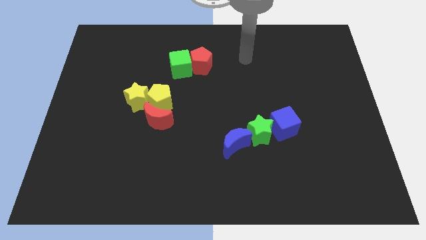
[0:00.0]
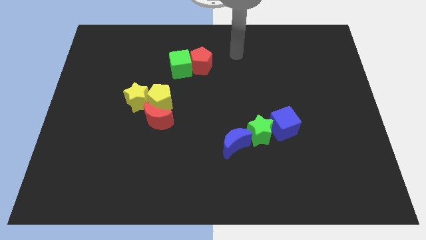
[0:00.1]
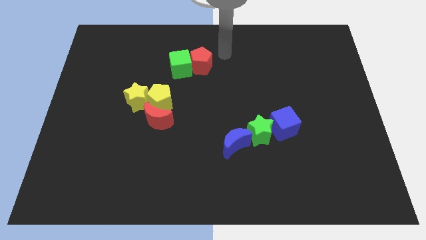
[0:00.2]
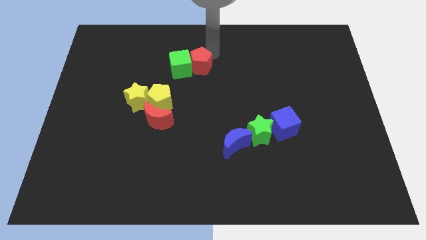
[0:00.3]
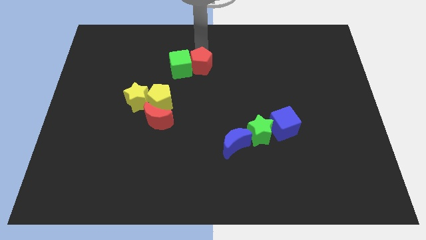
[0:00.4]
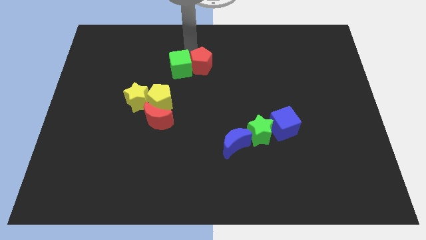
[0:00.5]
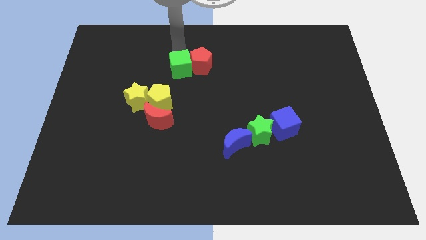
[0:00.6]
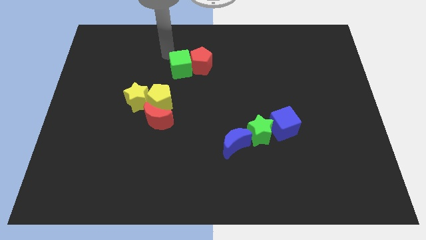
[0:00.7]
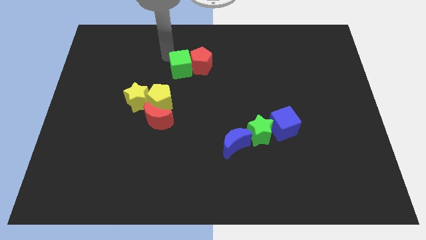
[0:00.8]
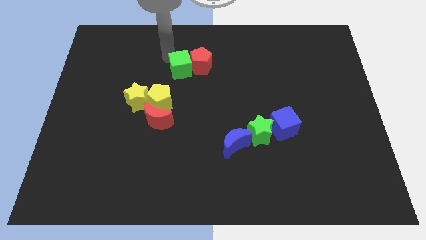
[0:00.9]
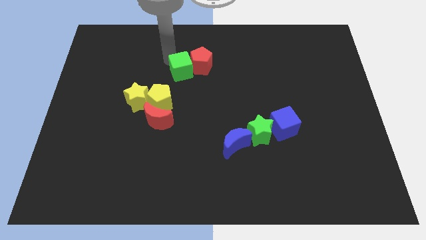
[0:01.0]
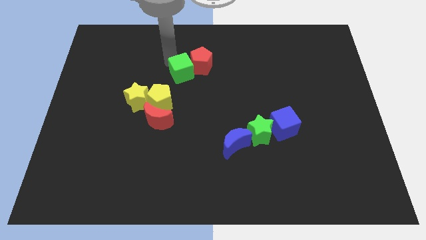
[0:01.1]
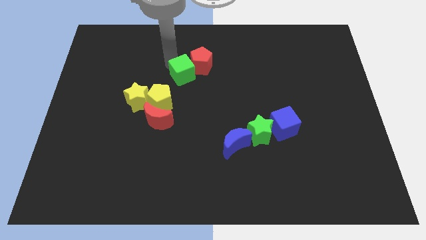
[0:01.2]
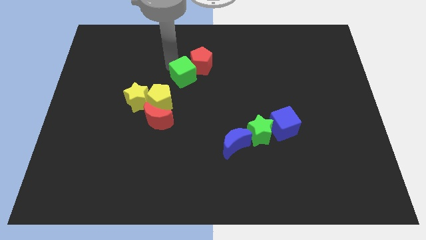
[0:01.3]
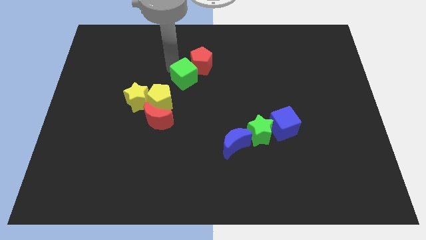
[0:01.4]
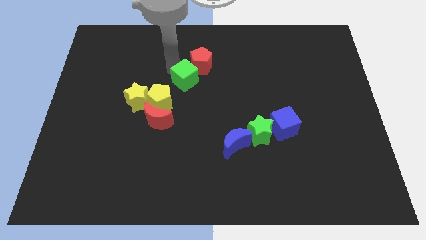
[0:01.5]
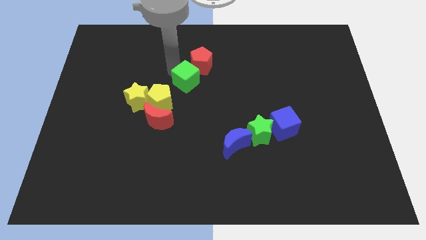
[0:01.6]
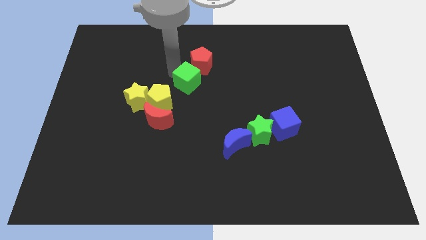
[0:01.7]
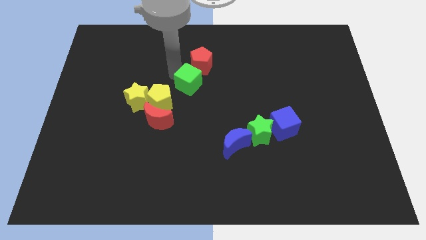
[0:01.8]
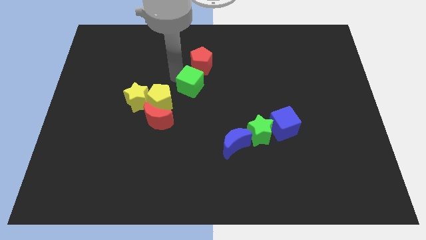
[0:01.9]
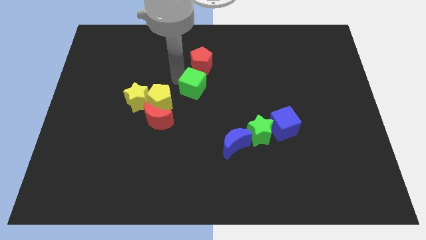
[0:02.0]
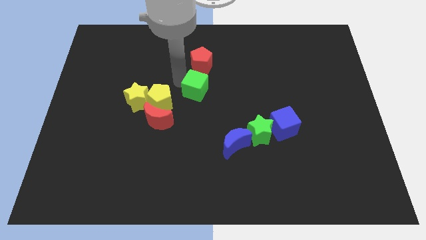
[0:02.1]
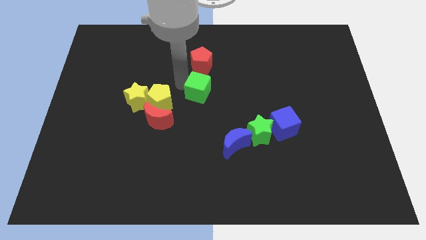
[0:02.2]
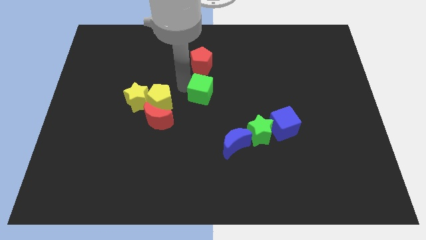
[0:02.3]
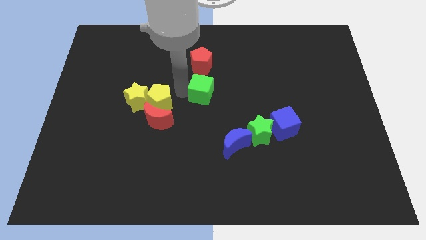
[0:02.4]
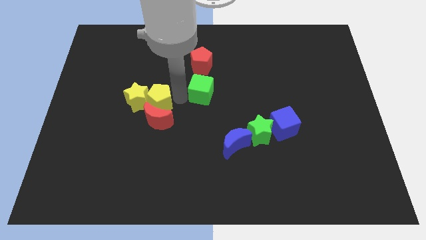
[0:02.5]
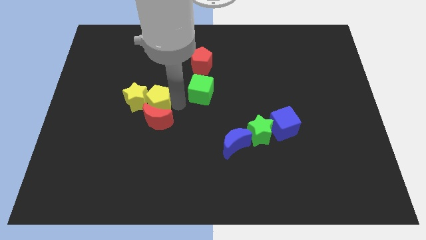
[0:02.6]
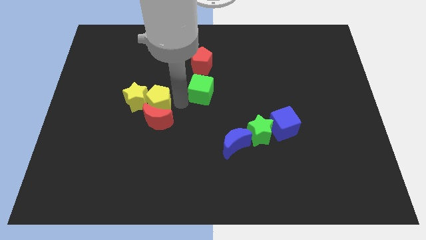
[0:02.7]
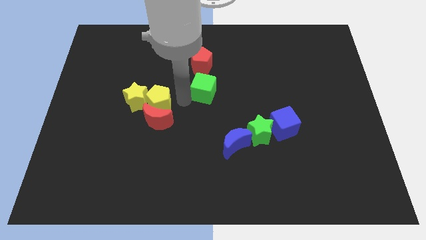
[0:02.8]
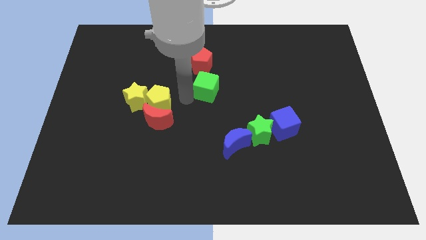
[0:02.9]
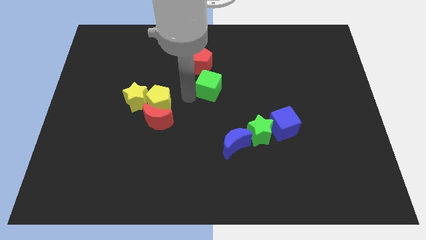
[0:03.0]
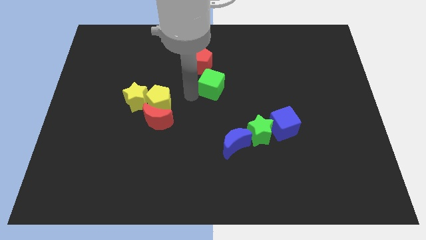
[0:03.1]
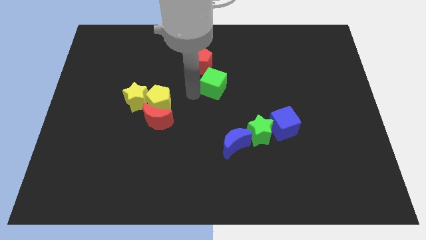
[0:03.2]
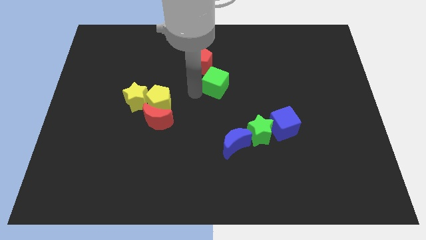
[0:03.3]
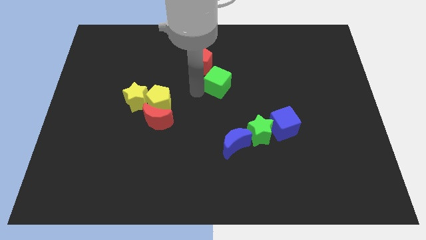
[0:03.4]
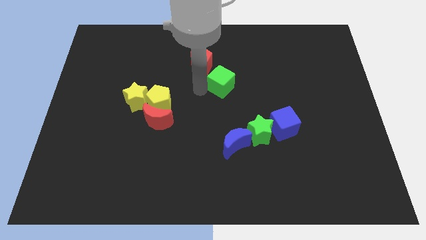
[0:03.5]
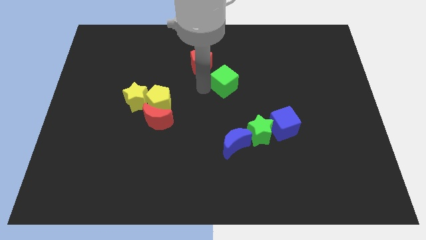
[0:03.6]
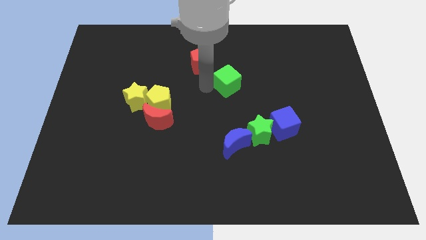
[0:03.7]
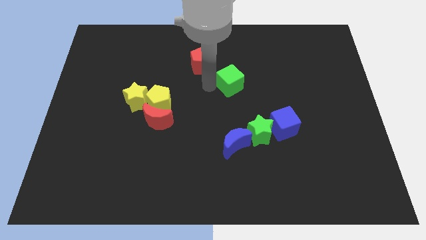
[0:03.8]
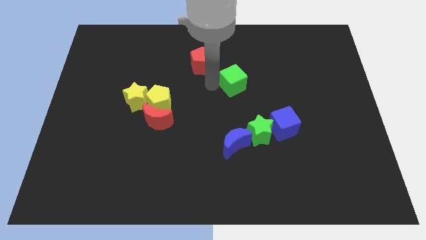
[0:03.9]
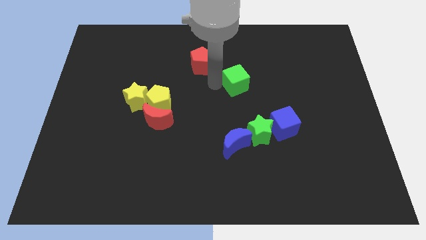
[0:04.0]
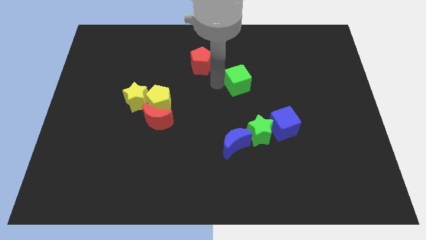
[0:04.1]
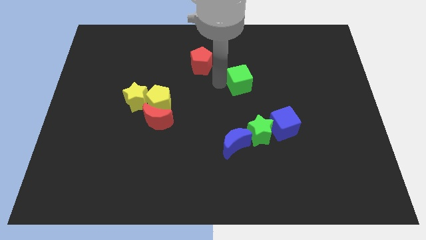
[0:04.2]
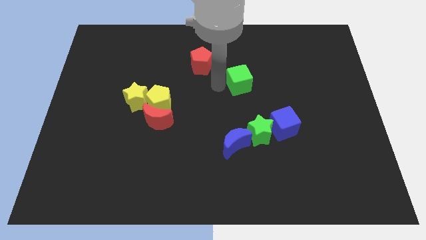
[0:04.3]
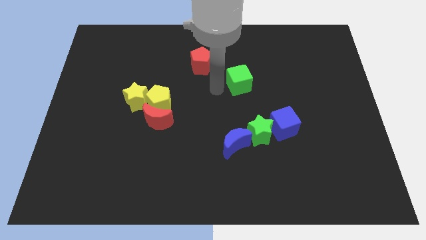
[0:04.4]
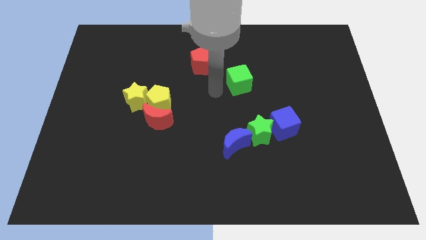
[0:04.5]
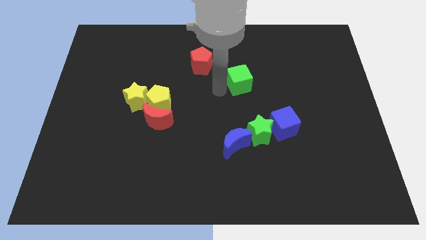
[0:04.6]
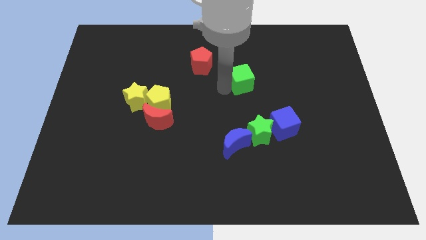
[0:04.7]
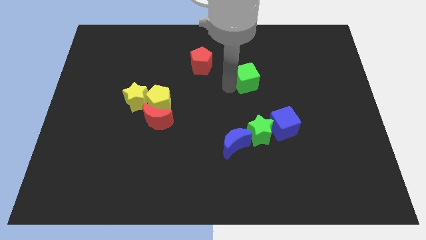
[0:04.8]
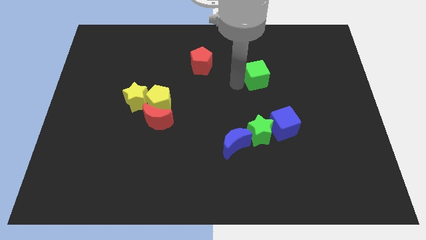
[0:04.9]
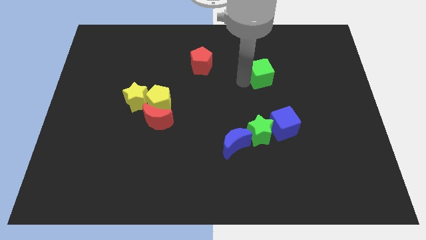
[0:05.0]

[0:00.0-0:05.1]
slide the green cube to the right

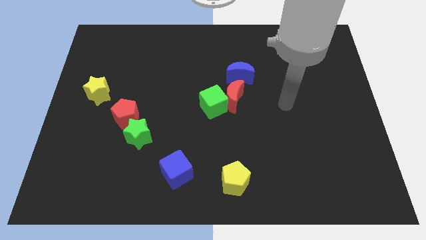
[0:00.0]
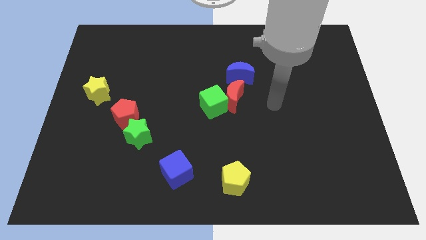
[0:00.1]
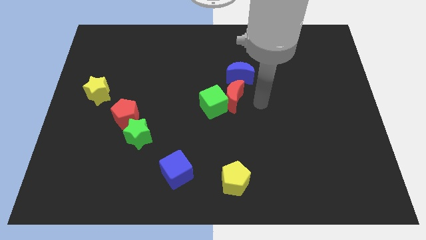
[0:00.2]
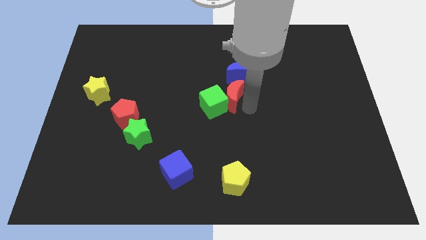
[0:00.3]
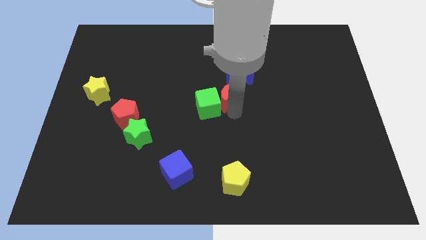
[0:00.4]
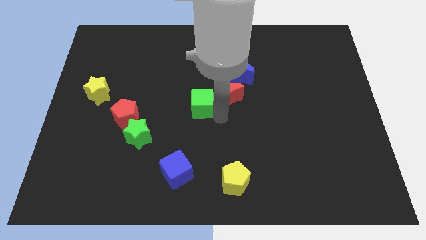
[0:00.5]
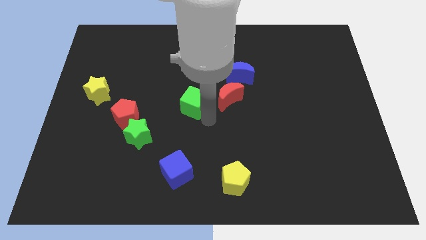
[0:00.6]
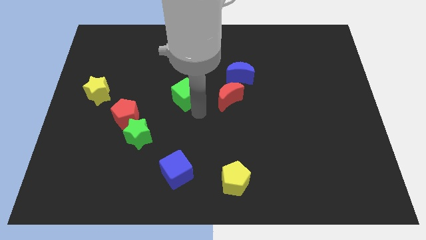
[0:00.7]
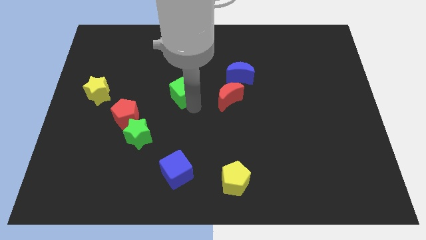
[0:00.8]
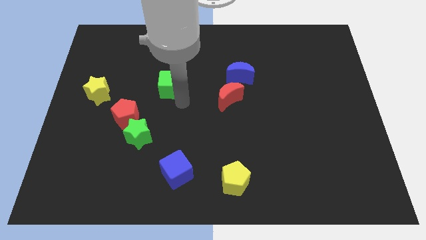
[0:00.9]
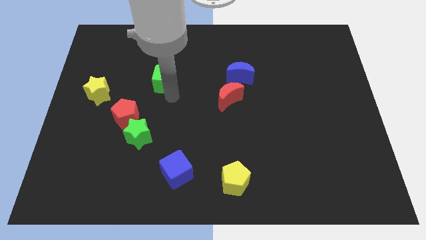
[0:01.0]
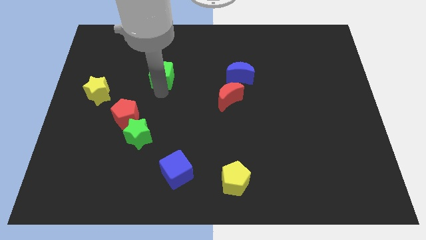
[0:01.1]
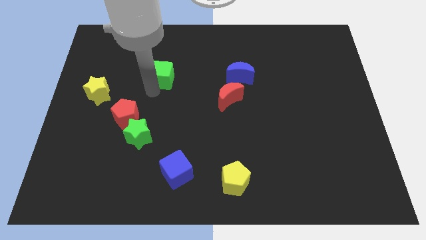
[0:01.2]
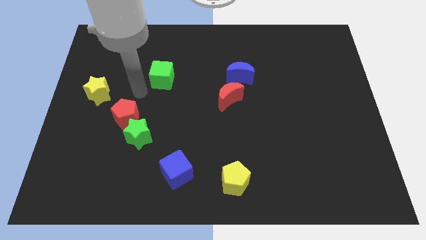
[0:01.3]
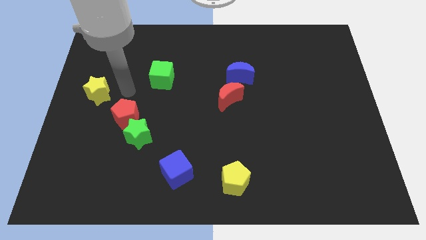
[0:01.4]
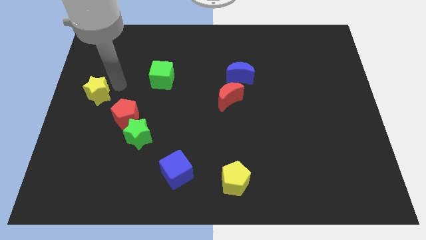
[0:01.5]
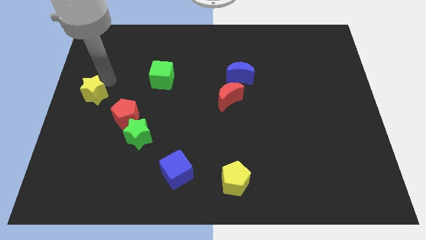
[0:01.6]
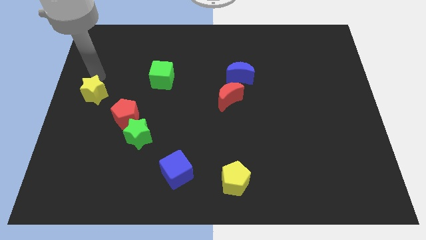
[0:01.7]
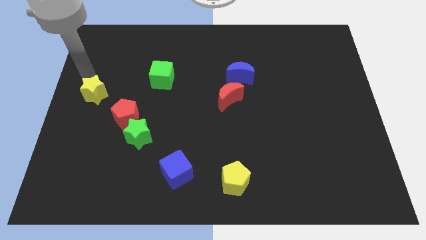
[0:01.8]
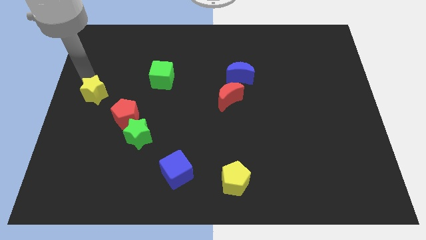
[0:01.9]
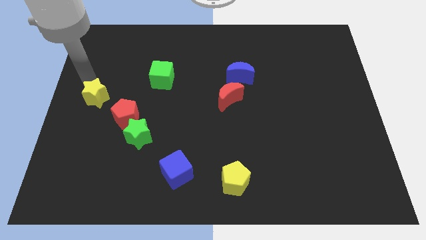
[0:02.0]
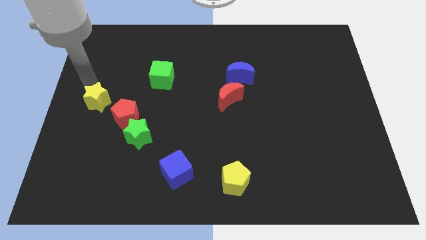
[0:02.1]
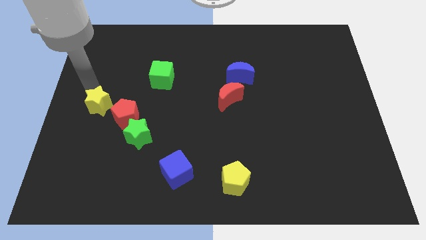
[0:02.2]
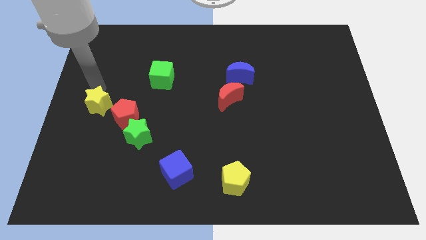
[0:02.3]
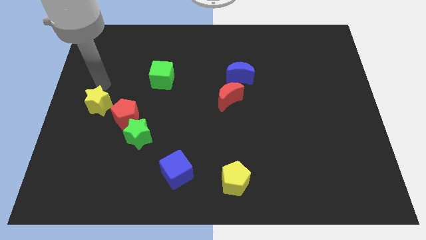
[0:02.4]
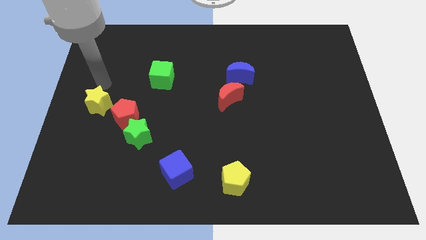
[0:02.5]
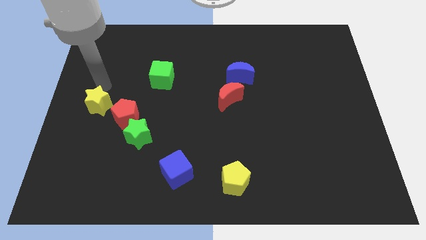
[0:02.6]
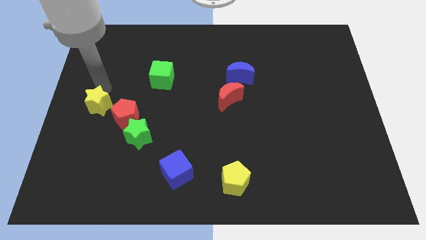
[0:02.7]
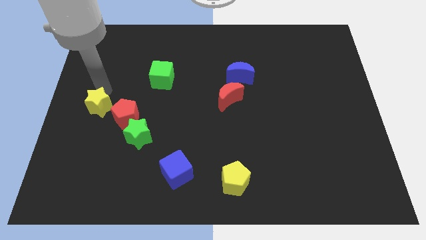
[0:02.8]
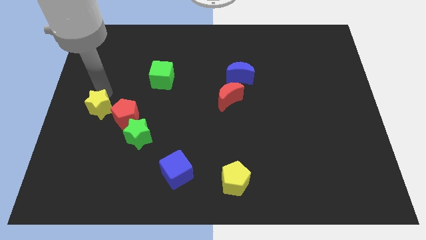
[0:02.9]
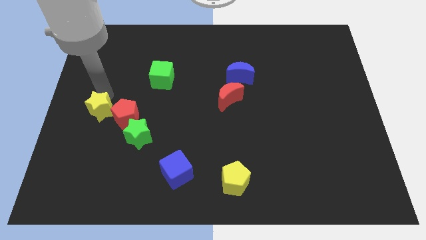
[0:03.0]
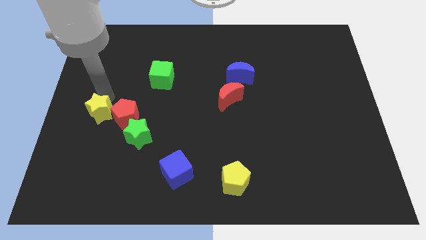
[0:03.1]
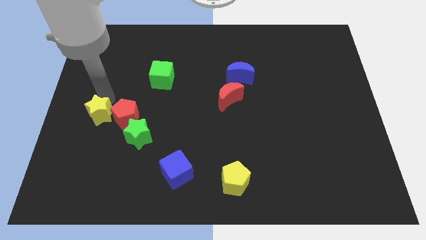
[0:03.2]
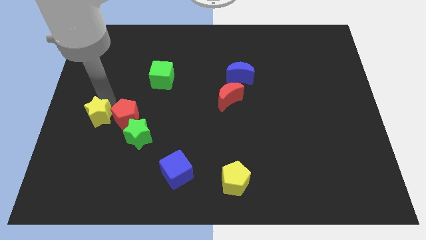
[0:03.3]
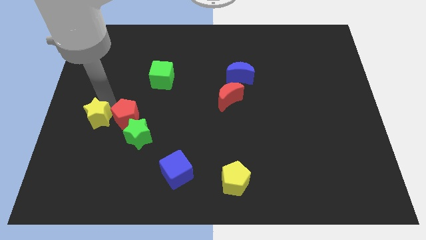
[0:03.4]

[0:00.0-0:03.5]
slightly slide the yellow star down
